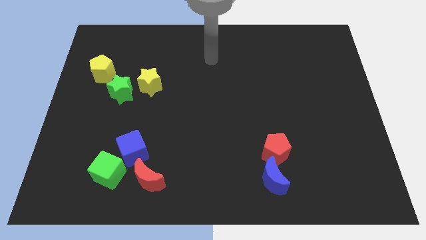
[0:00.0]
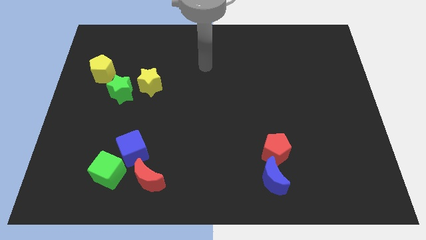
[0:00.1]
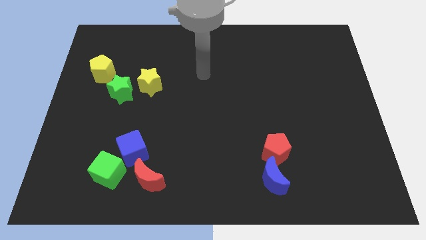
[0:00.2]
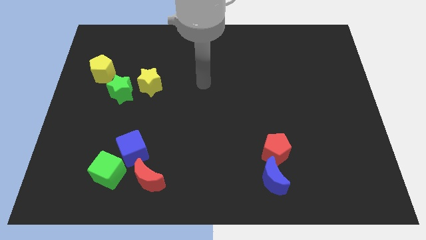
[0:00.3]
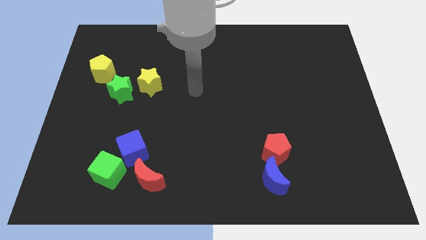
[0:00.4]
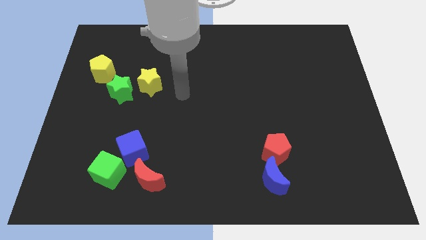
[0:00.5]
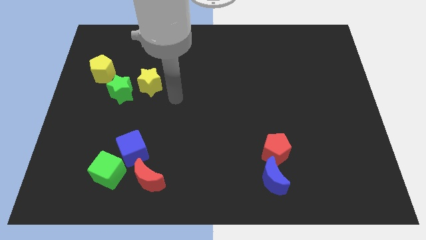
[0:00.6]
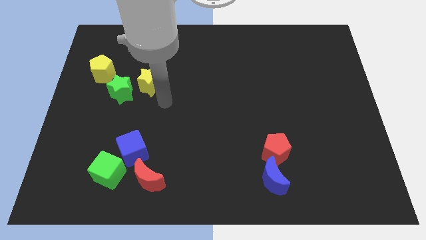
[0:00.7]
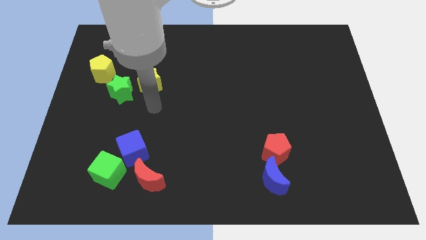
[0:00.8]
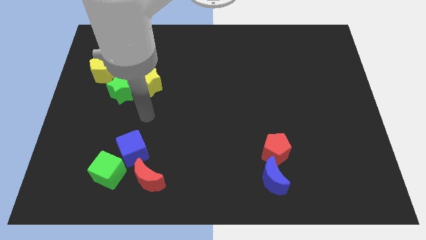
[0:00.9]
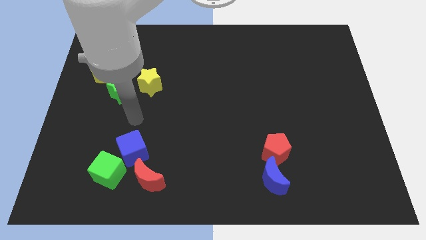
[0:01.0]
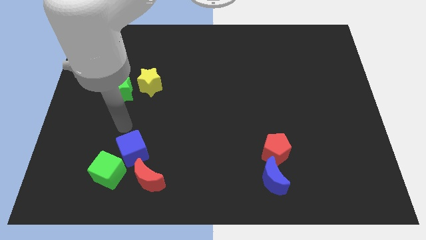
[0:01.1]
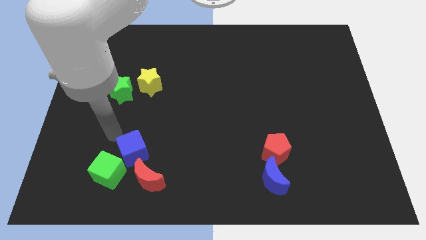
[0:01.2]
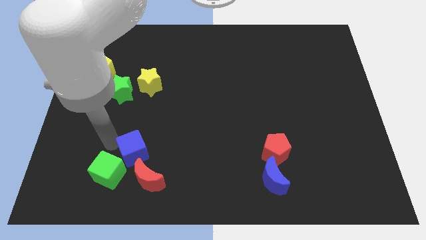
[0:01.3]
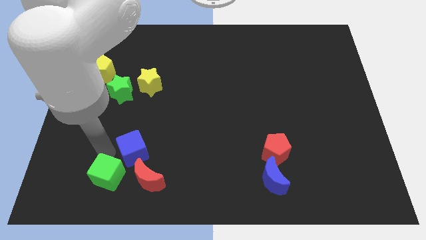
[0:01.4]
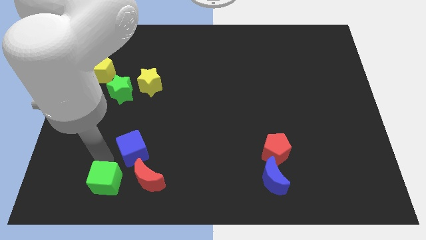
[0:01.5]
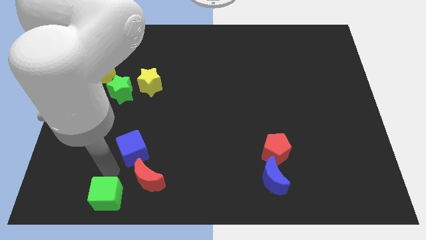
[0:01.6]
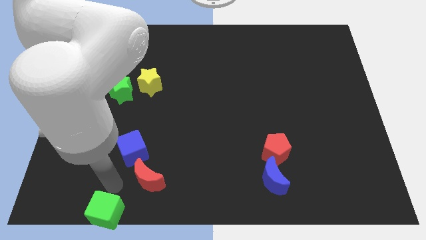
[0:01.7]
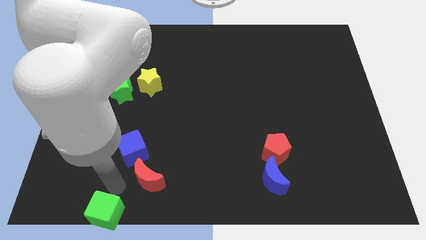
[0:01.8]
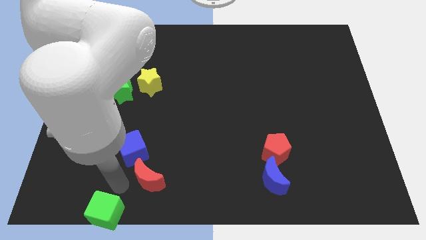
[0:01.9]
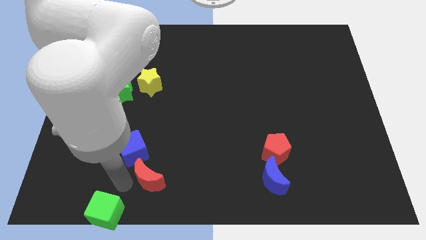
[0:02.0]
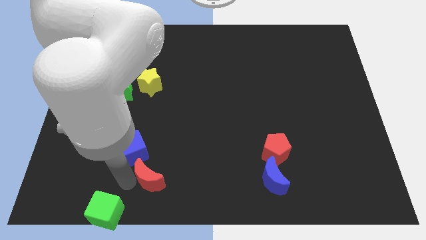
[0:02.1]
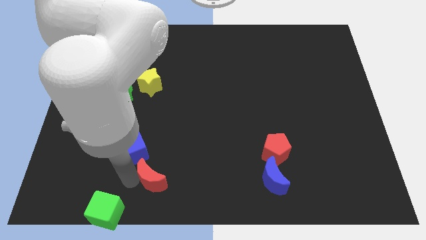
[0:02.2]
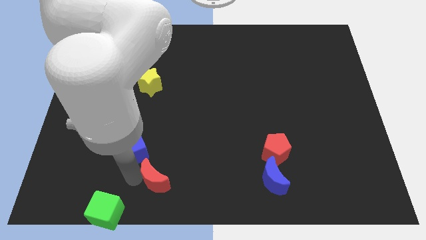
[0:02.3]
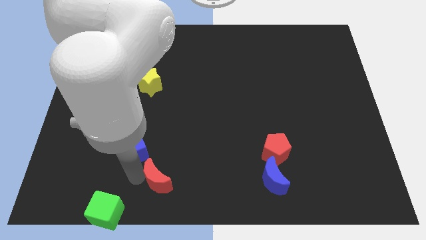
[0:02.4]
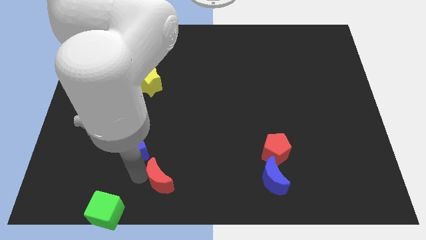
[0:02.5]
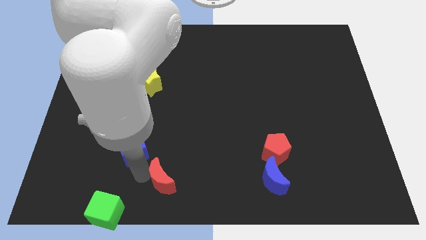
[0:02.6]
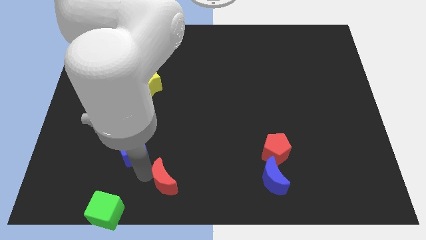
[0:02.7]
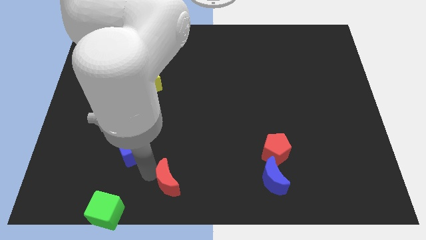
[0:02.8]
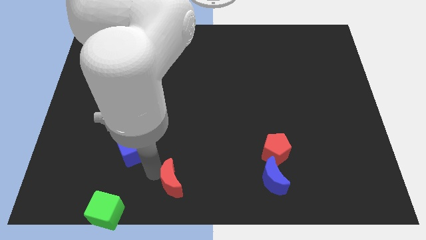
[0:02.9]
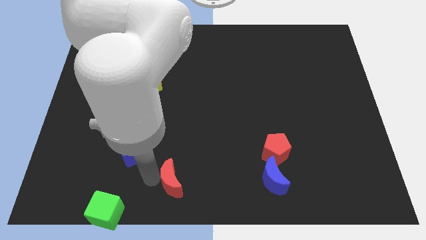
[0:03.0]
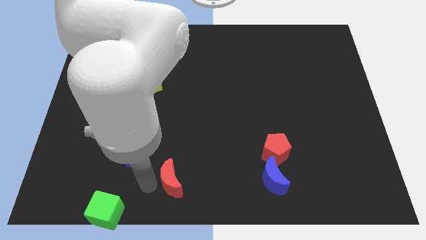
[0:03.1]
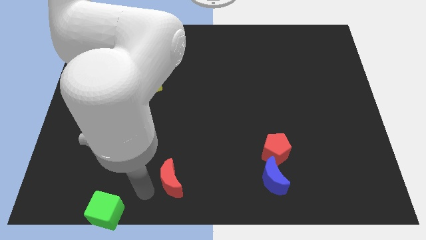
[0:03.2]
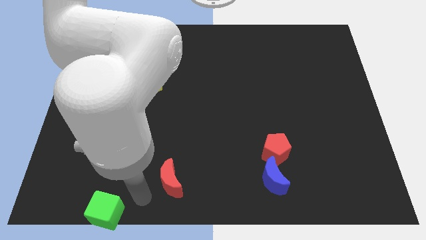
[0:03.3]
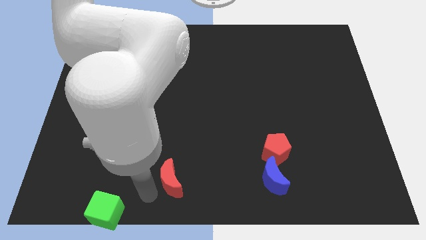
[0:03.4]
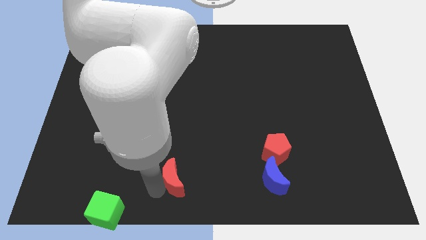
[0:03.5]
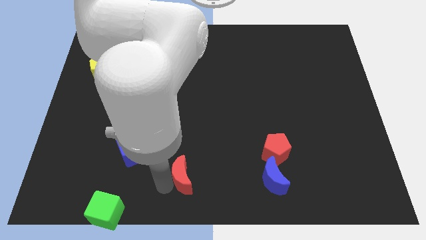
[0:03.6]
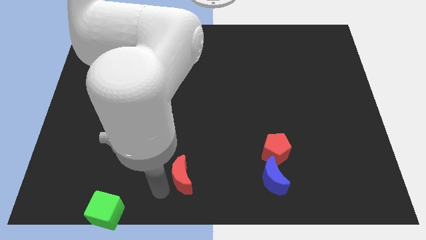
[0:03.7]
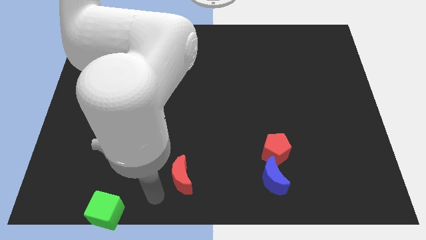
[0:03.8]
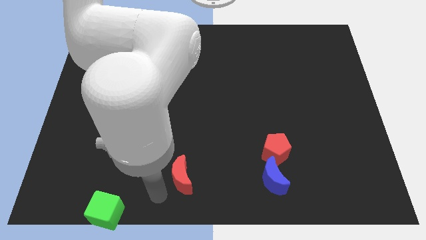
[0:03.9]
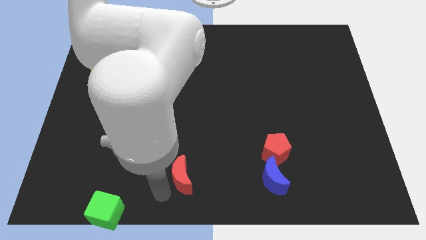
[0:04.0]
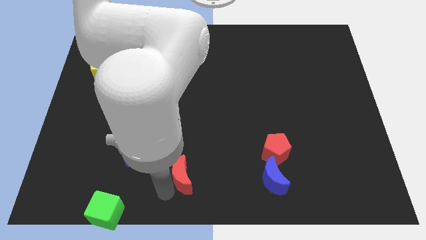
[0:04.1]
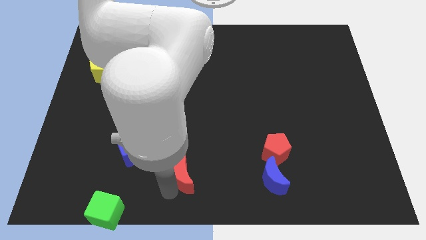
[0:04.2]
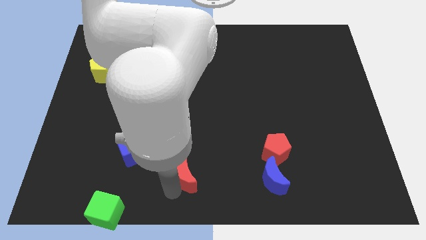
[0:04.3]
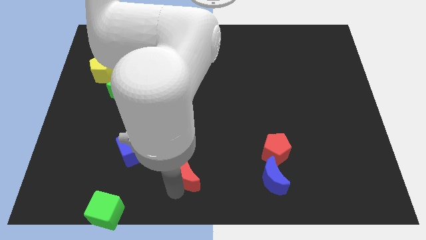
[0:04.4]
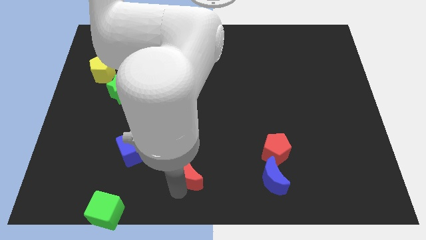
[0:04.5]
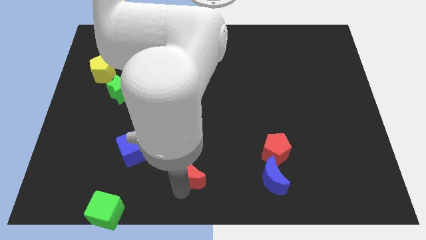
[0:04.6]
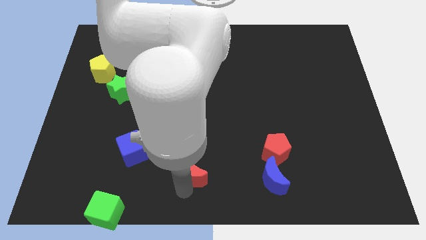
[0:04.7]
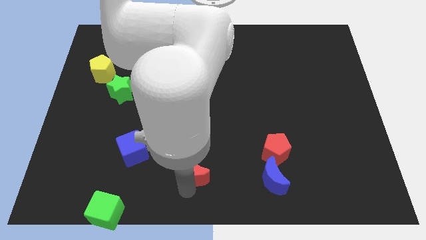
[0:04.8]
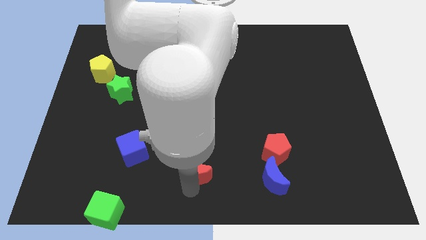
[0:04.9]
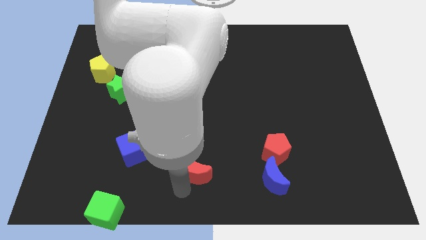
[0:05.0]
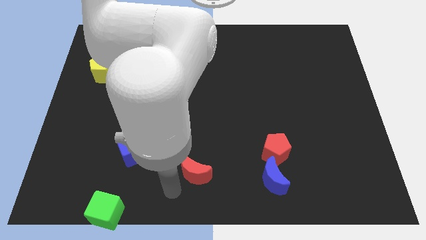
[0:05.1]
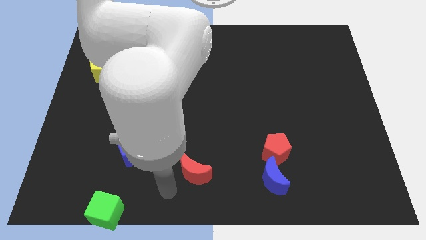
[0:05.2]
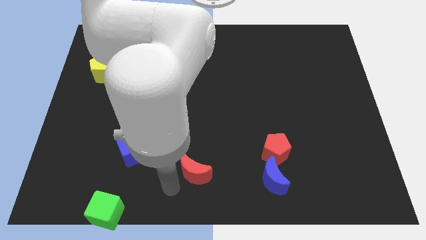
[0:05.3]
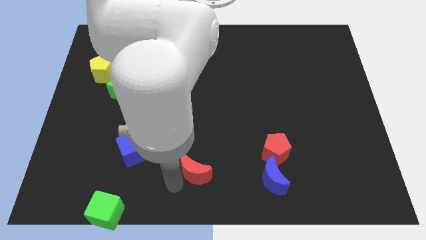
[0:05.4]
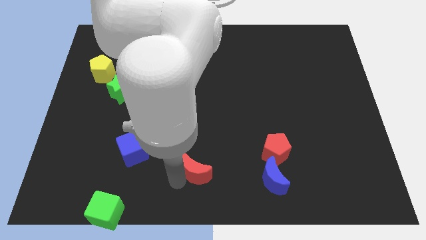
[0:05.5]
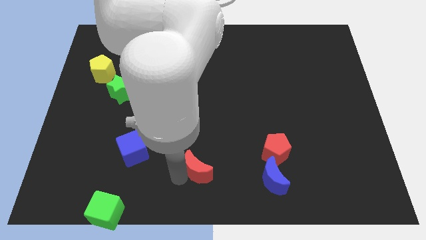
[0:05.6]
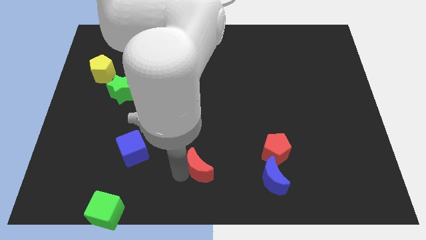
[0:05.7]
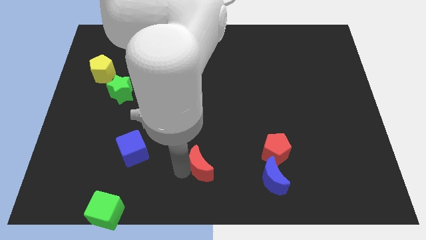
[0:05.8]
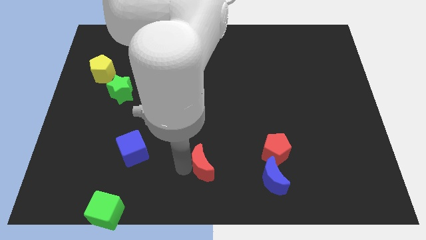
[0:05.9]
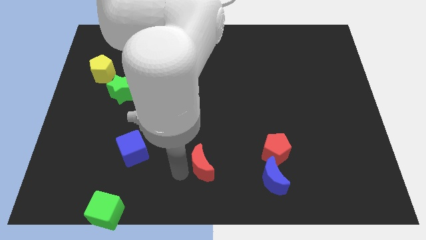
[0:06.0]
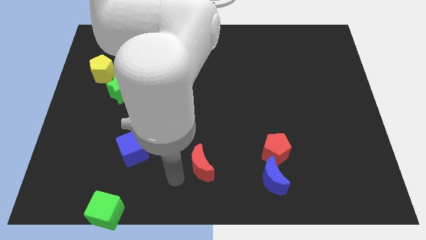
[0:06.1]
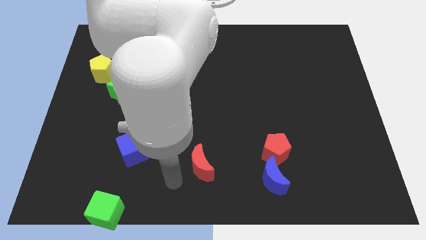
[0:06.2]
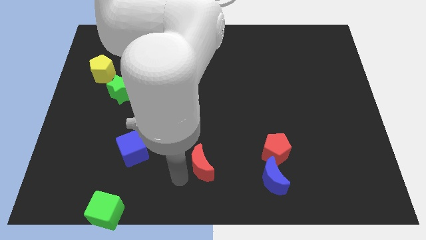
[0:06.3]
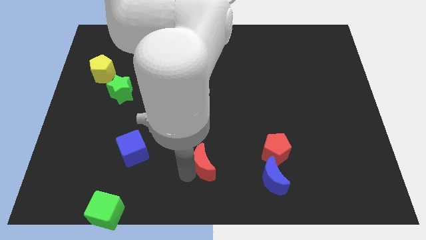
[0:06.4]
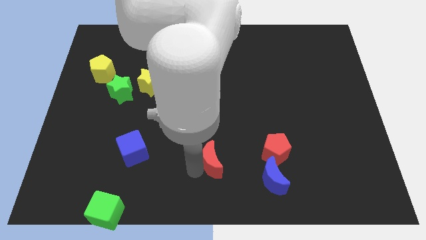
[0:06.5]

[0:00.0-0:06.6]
push the red moon to the left of the red pentagon

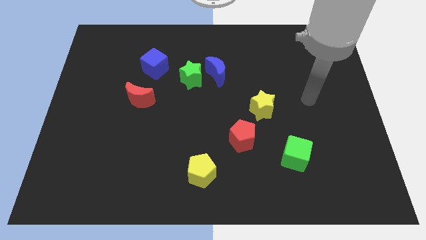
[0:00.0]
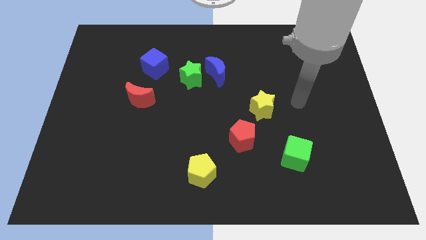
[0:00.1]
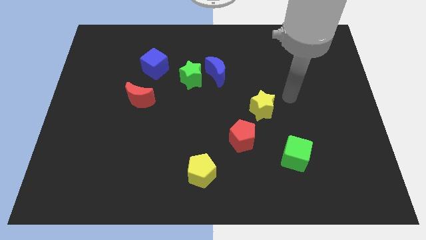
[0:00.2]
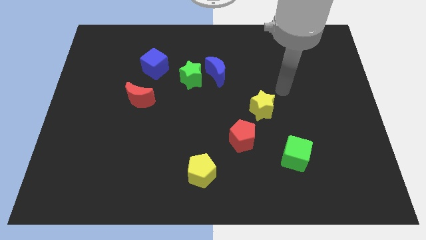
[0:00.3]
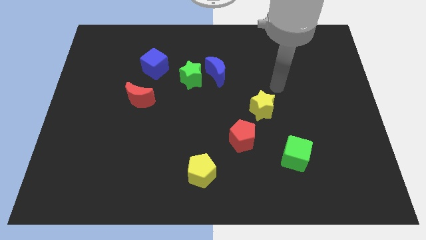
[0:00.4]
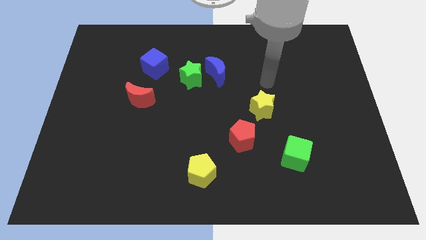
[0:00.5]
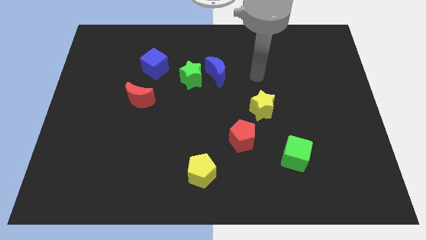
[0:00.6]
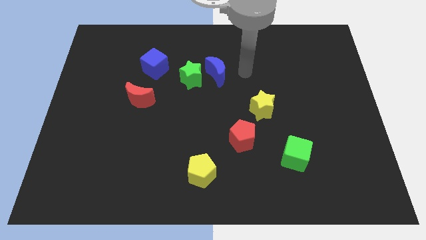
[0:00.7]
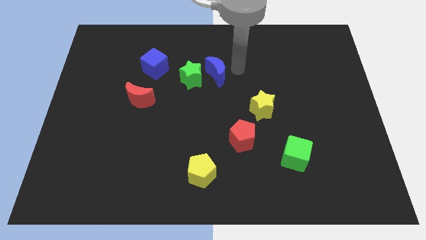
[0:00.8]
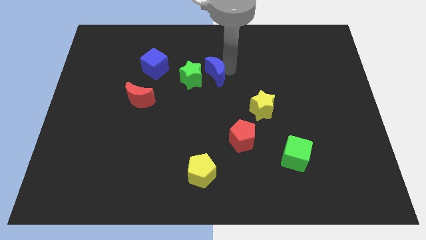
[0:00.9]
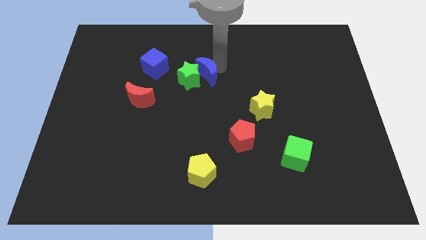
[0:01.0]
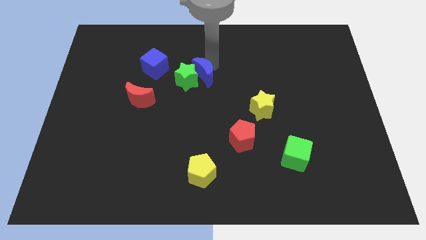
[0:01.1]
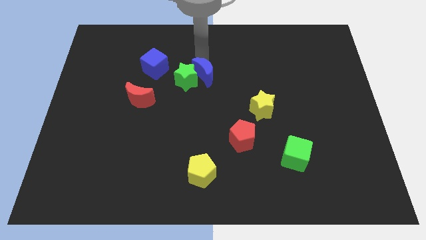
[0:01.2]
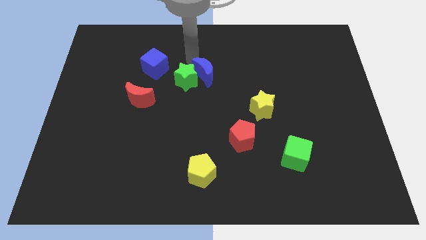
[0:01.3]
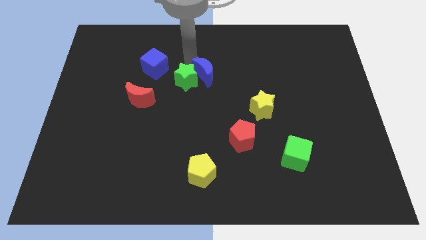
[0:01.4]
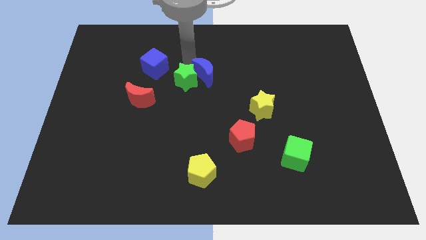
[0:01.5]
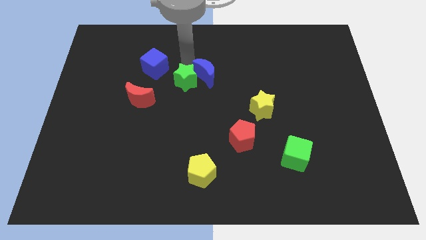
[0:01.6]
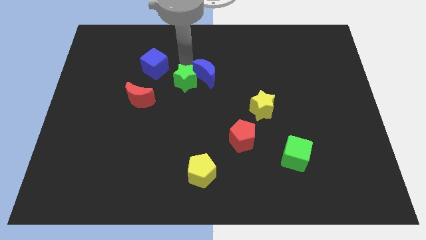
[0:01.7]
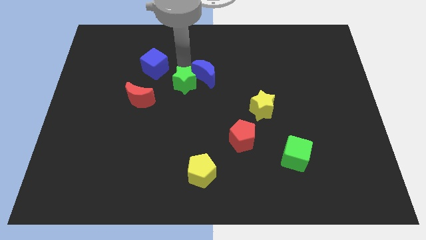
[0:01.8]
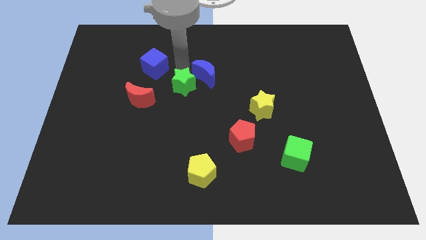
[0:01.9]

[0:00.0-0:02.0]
put the green star right of the red moon
